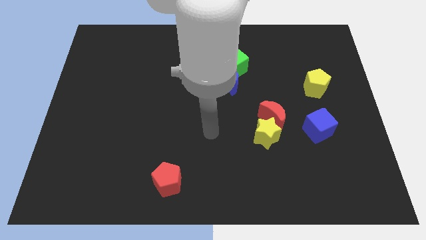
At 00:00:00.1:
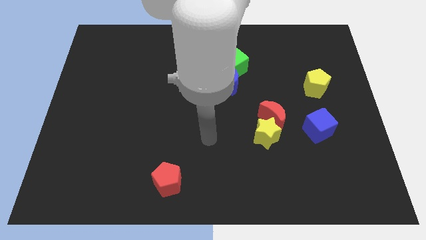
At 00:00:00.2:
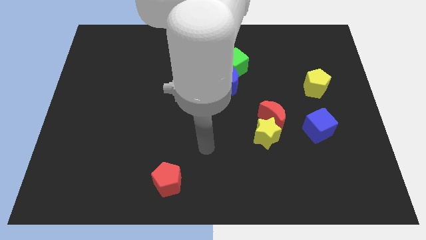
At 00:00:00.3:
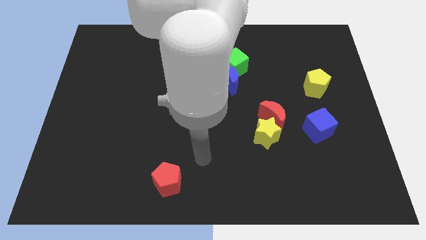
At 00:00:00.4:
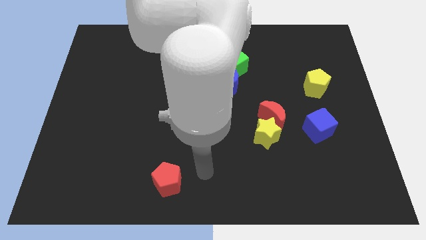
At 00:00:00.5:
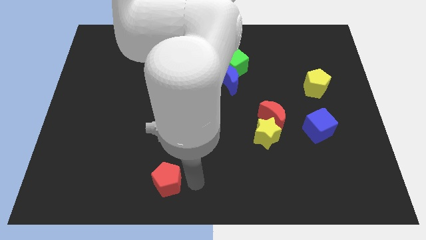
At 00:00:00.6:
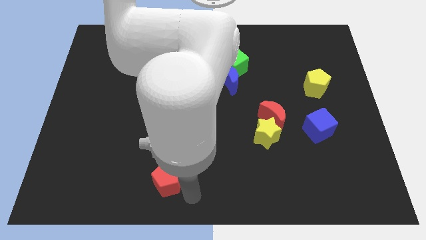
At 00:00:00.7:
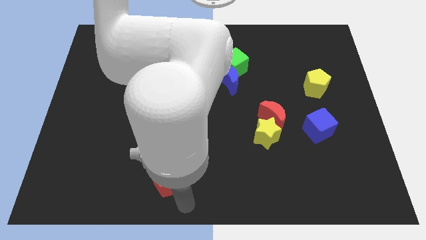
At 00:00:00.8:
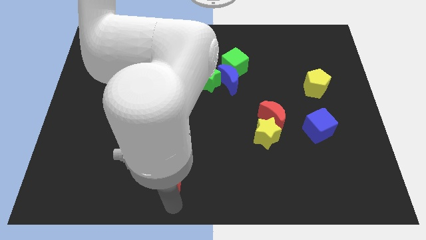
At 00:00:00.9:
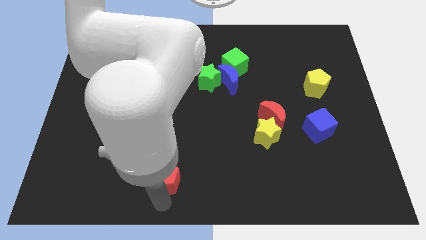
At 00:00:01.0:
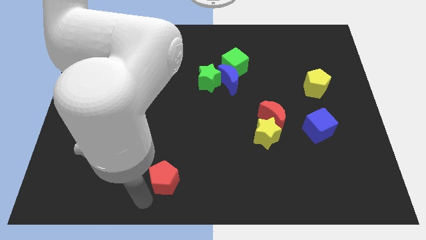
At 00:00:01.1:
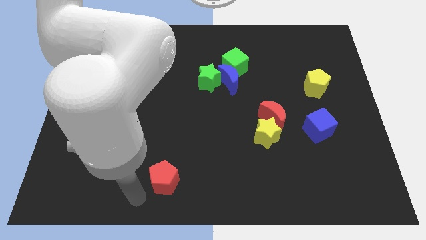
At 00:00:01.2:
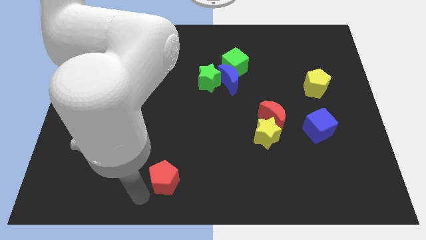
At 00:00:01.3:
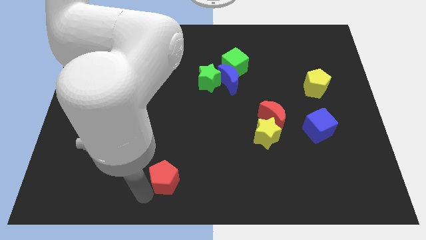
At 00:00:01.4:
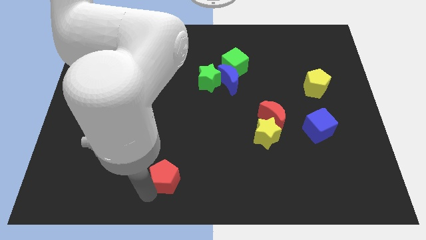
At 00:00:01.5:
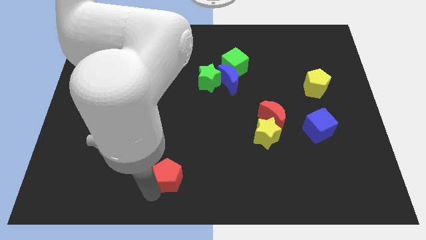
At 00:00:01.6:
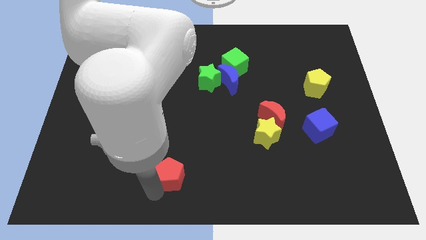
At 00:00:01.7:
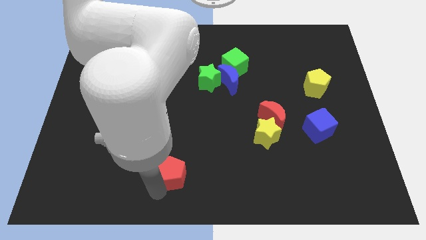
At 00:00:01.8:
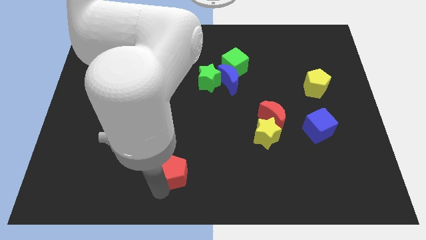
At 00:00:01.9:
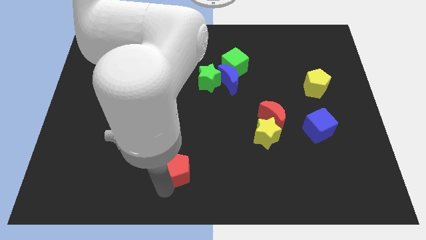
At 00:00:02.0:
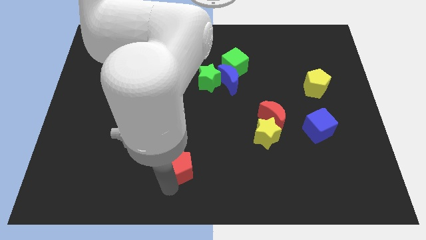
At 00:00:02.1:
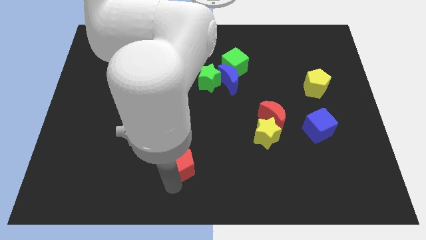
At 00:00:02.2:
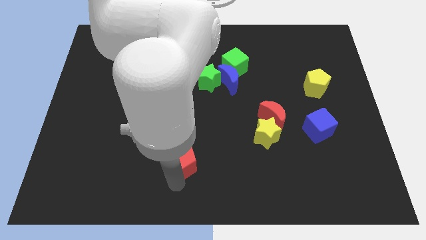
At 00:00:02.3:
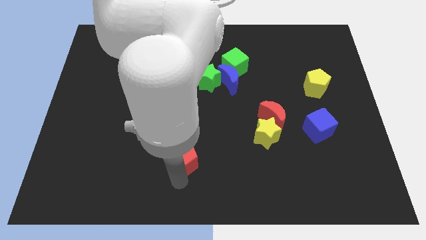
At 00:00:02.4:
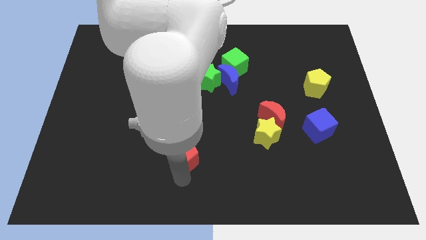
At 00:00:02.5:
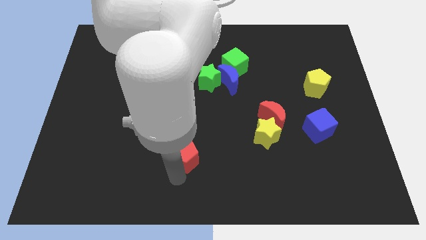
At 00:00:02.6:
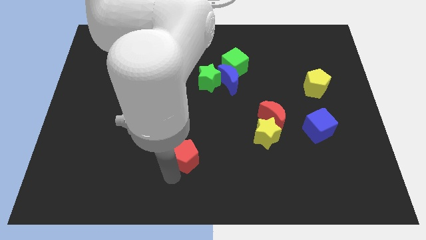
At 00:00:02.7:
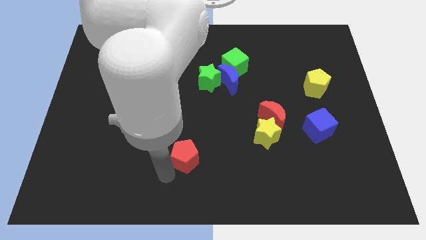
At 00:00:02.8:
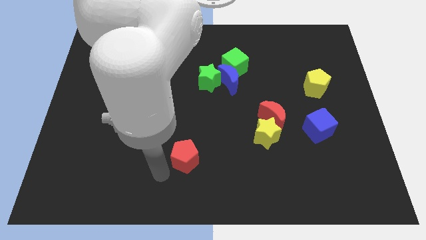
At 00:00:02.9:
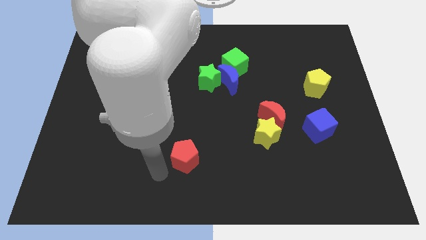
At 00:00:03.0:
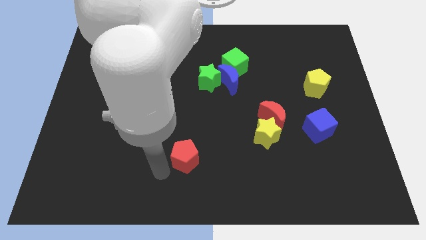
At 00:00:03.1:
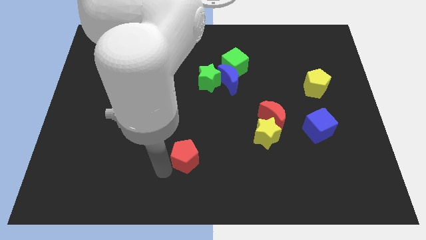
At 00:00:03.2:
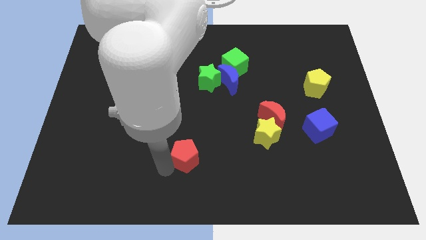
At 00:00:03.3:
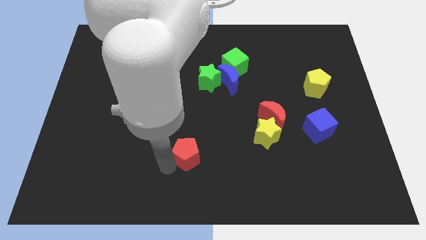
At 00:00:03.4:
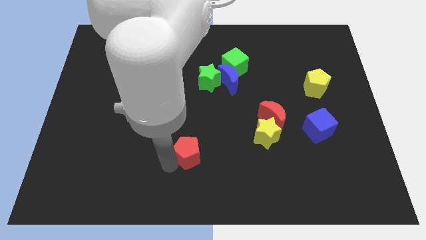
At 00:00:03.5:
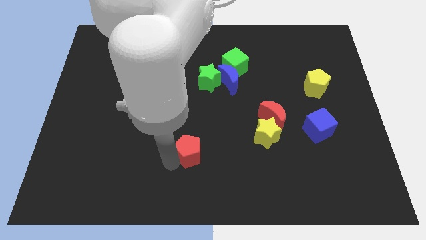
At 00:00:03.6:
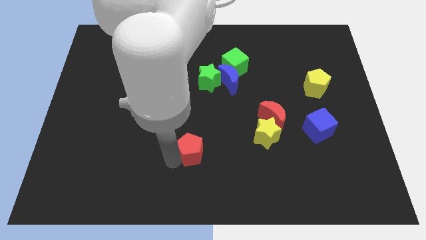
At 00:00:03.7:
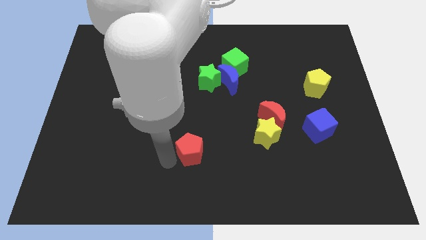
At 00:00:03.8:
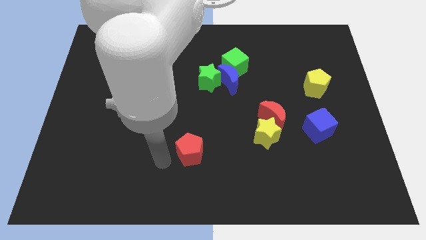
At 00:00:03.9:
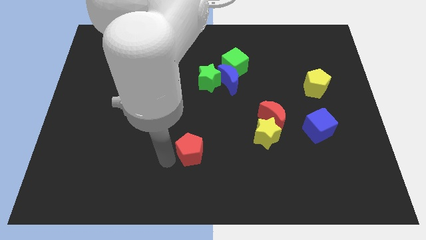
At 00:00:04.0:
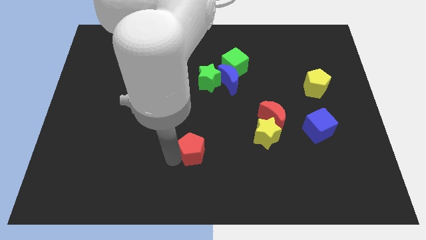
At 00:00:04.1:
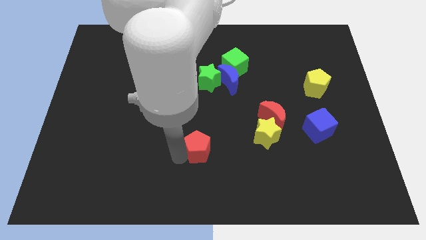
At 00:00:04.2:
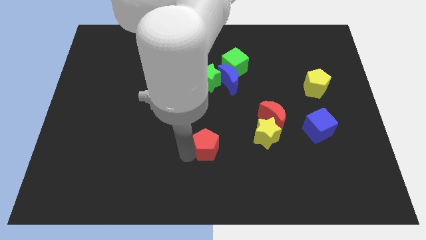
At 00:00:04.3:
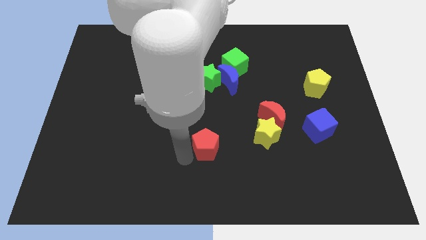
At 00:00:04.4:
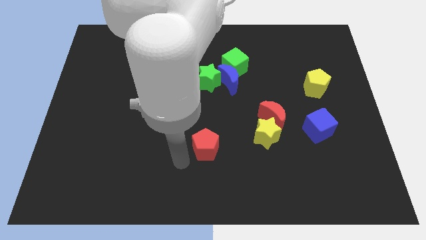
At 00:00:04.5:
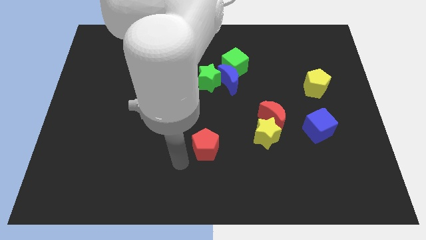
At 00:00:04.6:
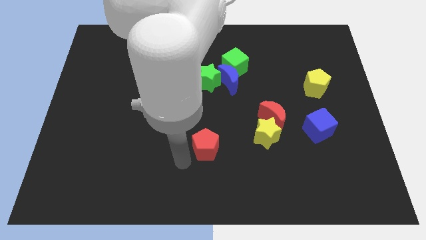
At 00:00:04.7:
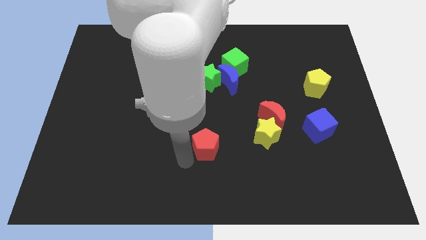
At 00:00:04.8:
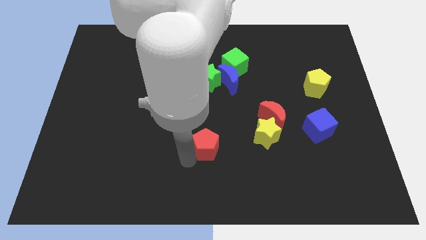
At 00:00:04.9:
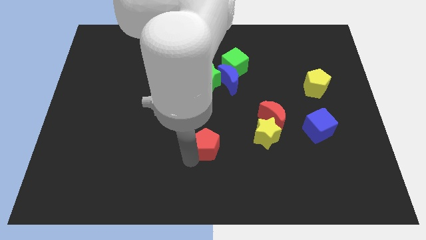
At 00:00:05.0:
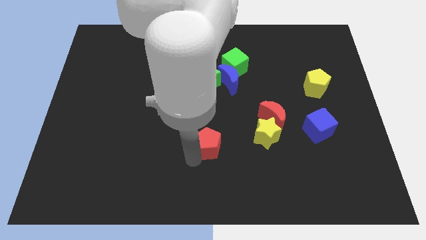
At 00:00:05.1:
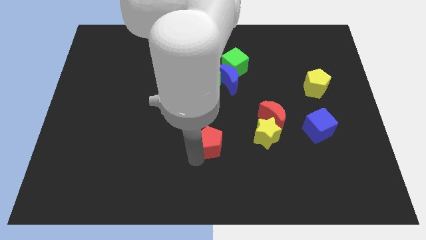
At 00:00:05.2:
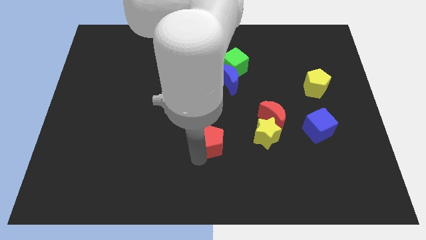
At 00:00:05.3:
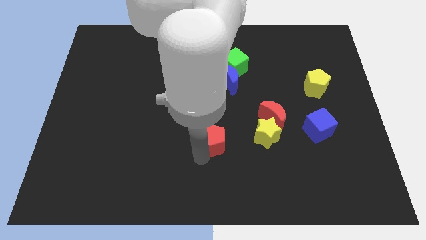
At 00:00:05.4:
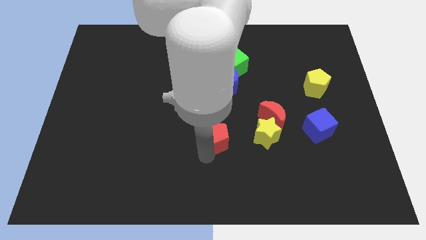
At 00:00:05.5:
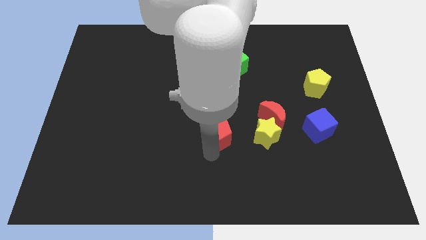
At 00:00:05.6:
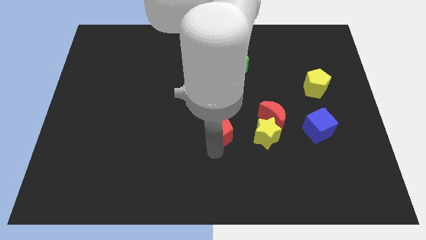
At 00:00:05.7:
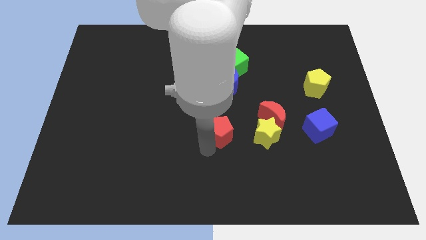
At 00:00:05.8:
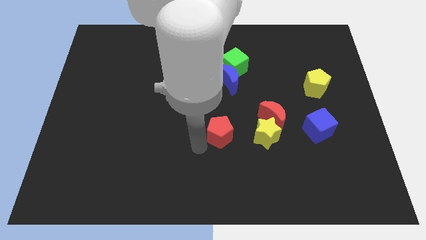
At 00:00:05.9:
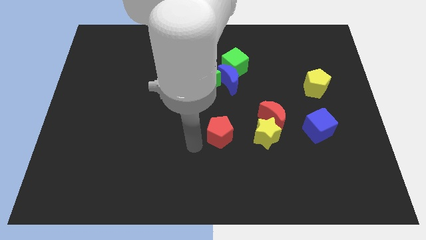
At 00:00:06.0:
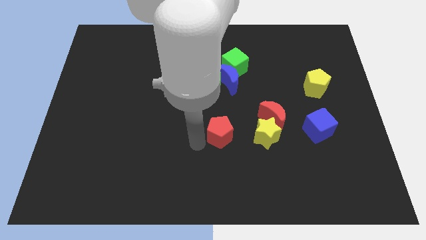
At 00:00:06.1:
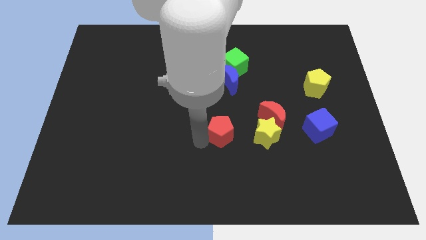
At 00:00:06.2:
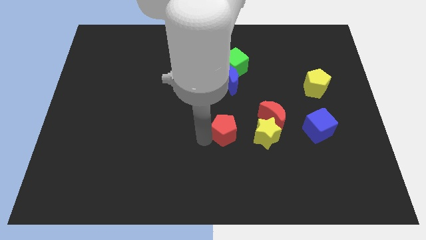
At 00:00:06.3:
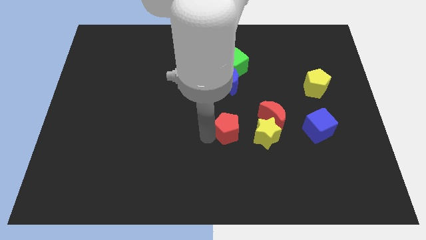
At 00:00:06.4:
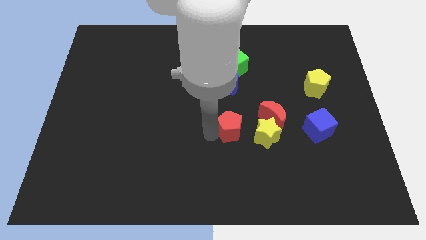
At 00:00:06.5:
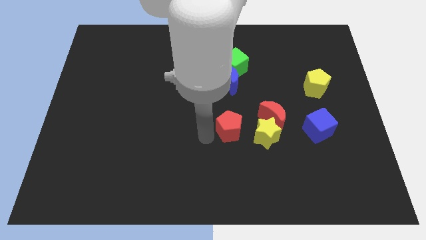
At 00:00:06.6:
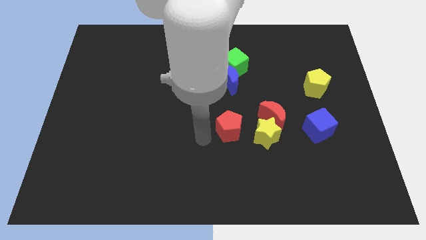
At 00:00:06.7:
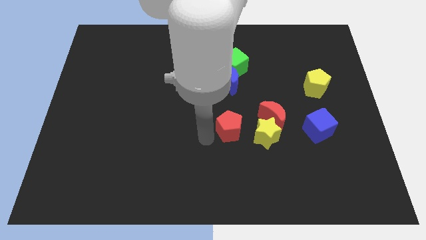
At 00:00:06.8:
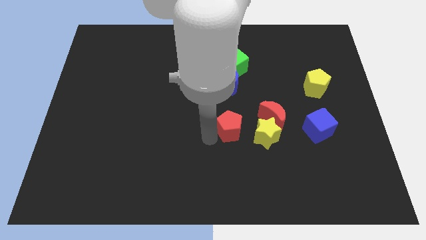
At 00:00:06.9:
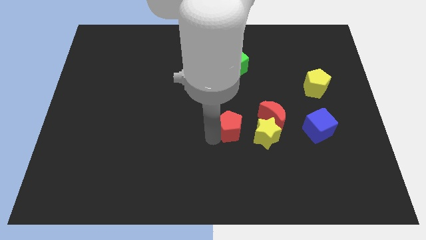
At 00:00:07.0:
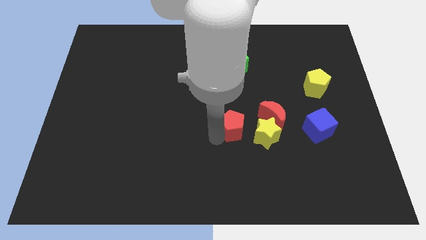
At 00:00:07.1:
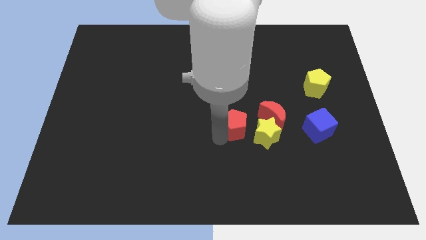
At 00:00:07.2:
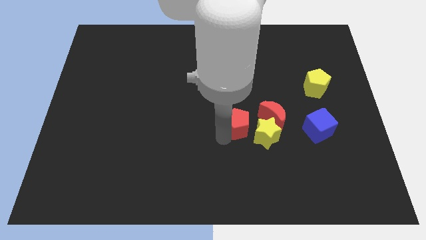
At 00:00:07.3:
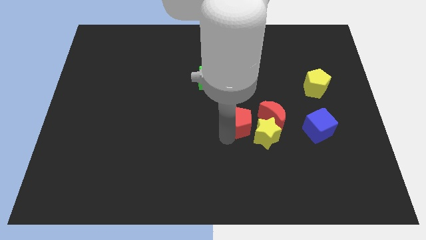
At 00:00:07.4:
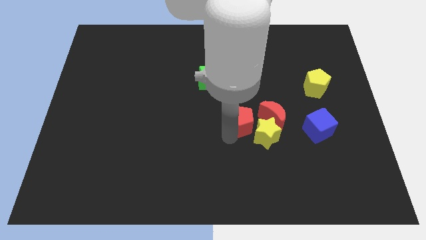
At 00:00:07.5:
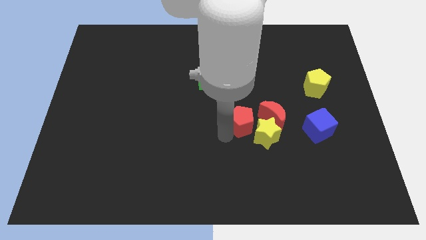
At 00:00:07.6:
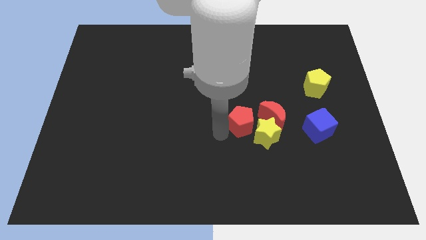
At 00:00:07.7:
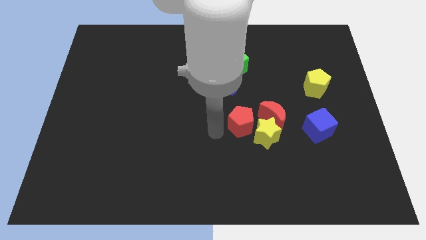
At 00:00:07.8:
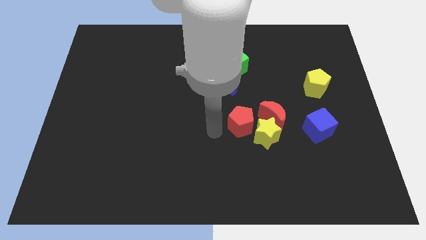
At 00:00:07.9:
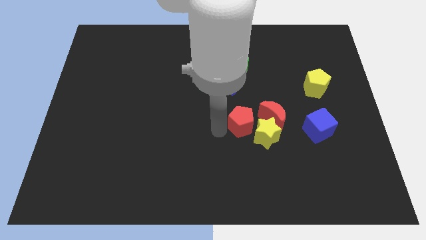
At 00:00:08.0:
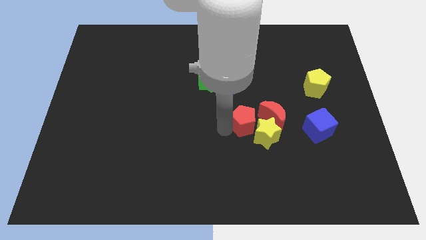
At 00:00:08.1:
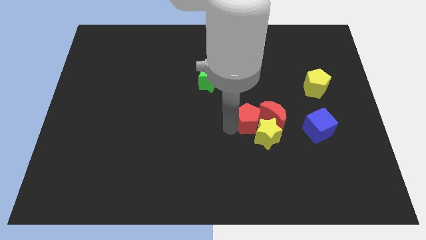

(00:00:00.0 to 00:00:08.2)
move the red pentagon close to the red moon
